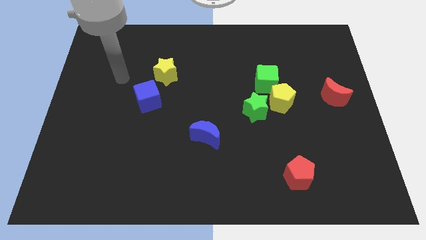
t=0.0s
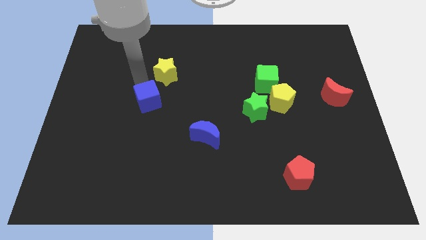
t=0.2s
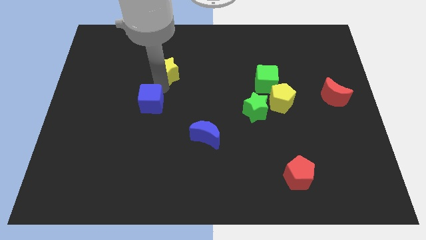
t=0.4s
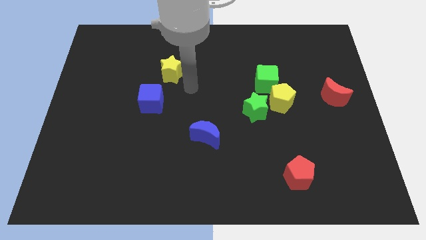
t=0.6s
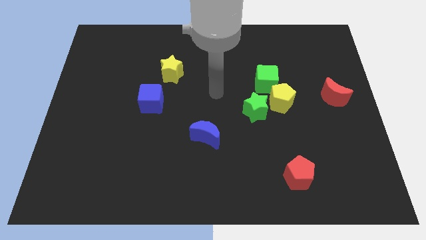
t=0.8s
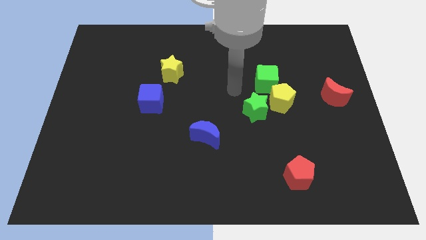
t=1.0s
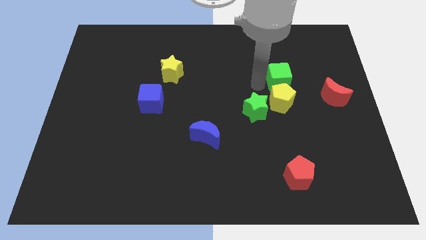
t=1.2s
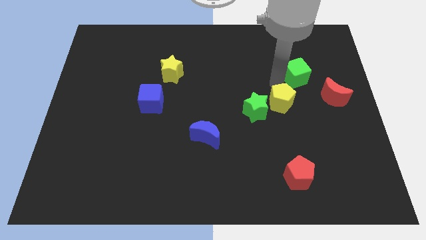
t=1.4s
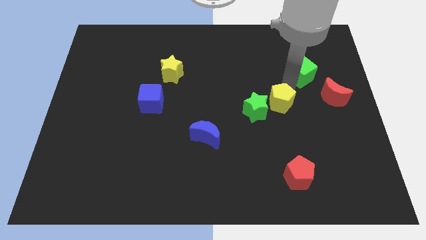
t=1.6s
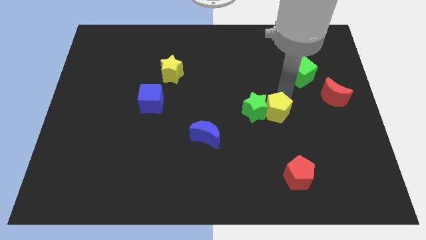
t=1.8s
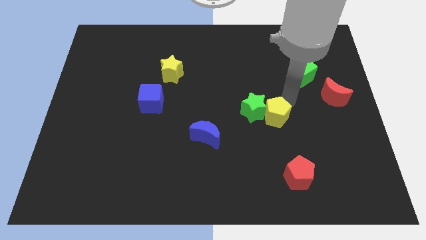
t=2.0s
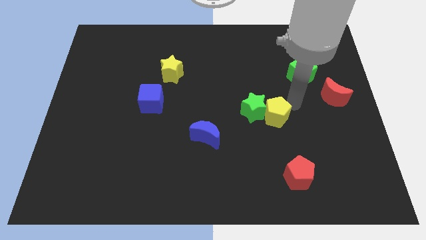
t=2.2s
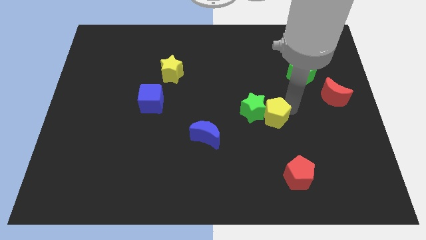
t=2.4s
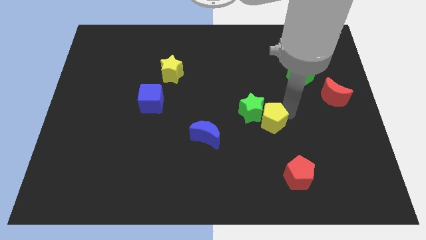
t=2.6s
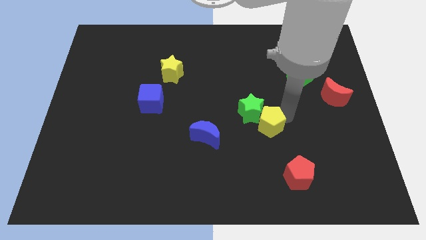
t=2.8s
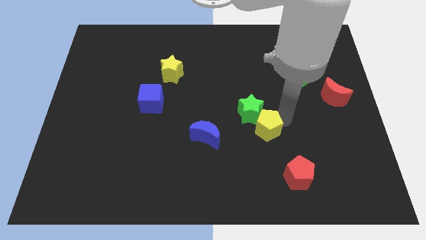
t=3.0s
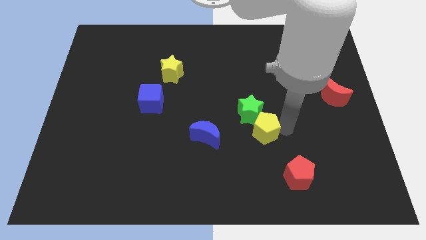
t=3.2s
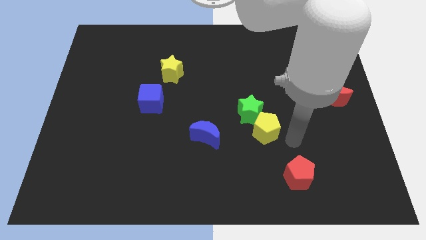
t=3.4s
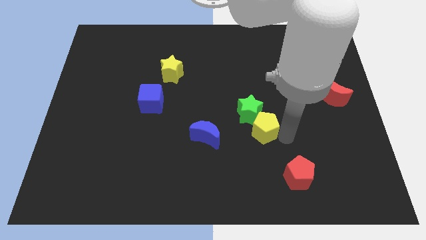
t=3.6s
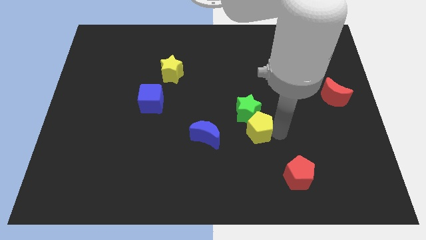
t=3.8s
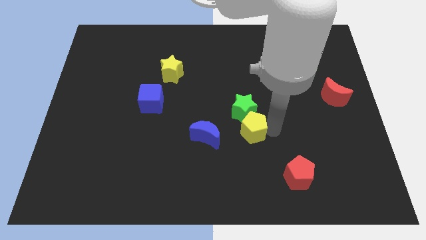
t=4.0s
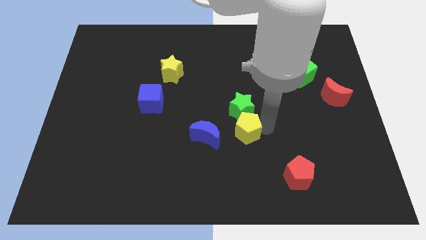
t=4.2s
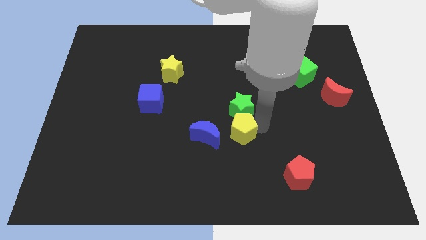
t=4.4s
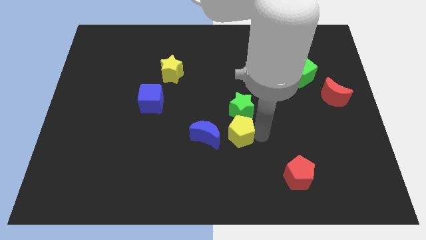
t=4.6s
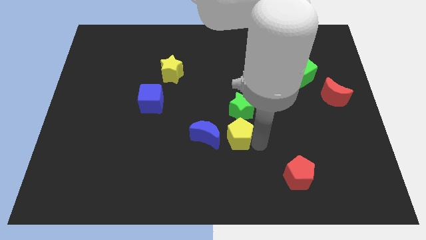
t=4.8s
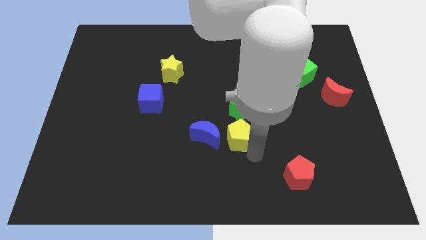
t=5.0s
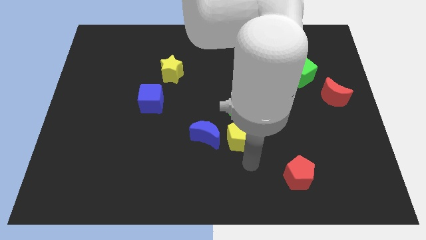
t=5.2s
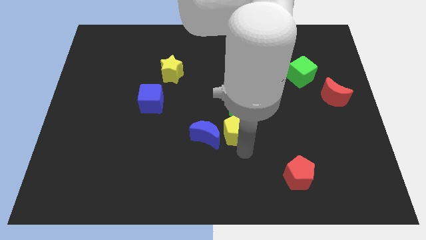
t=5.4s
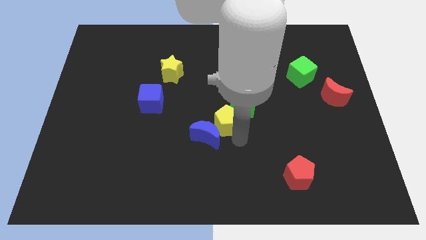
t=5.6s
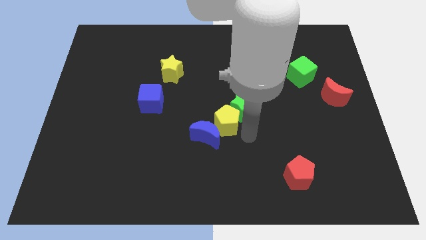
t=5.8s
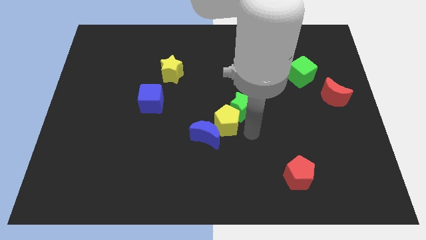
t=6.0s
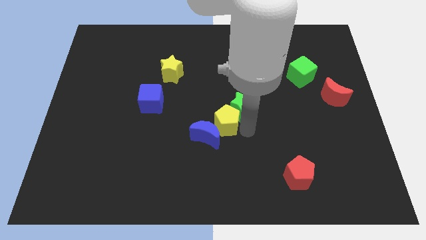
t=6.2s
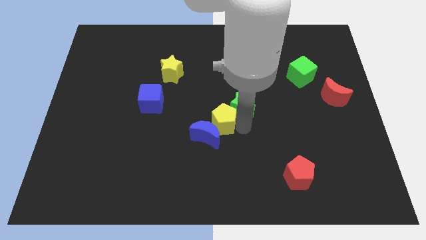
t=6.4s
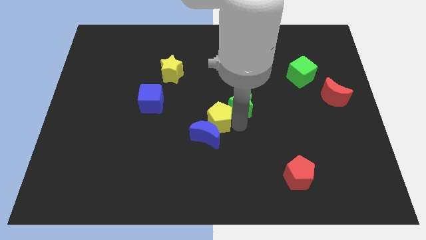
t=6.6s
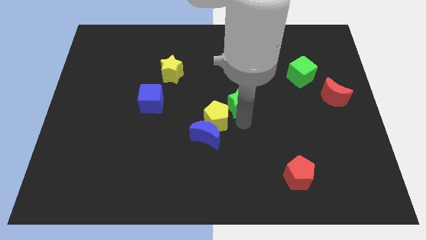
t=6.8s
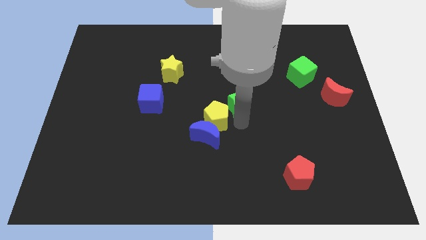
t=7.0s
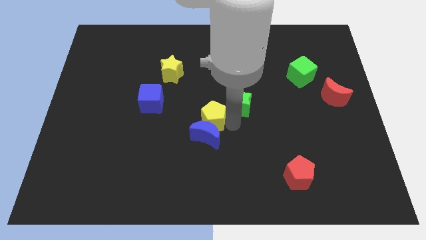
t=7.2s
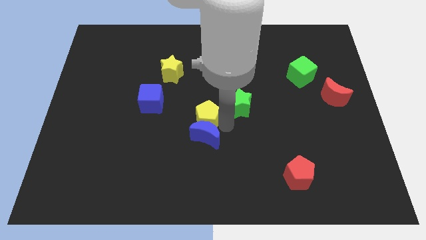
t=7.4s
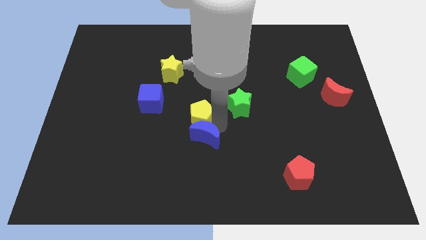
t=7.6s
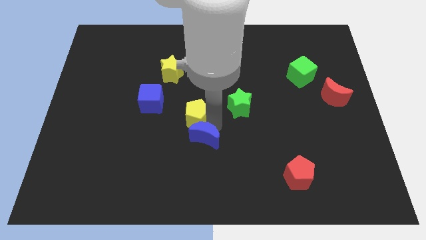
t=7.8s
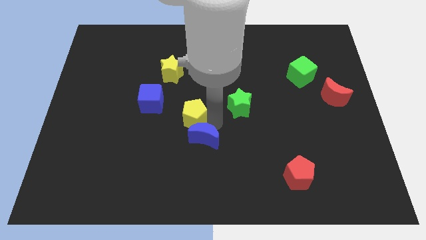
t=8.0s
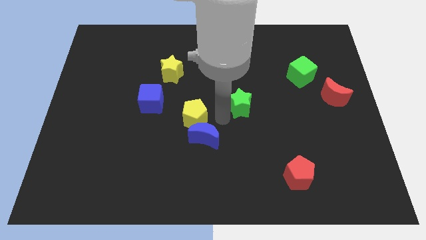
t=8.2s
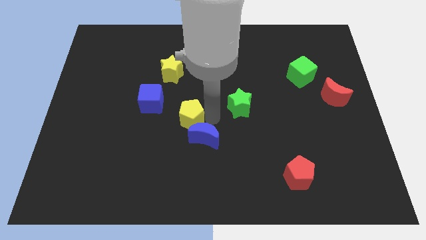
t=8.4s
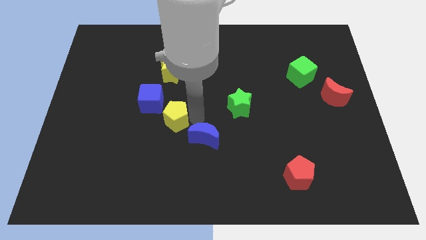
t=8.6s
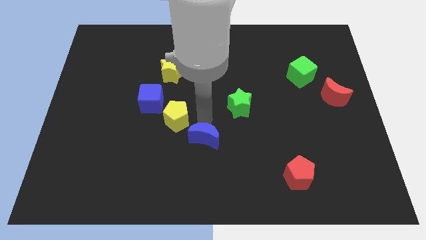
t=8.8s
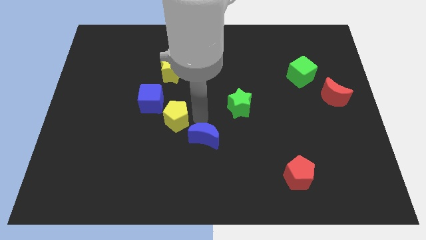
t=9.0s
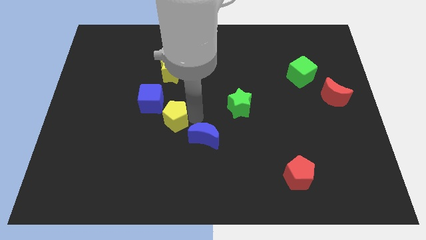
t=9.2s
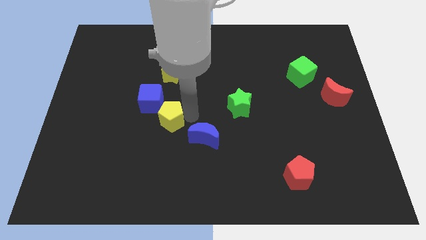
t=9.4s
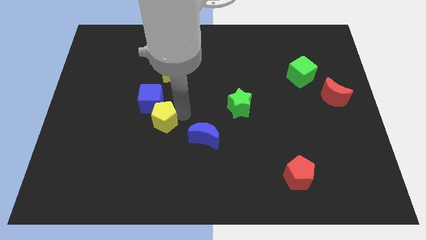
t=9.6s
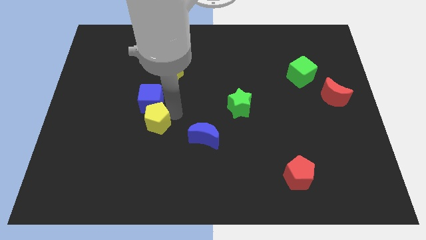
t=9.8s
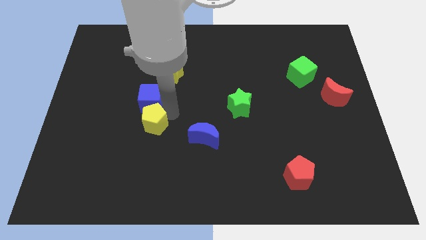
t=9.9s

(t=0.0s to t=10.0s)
slide the yellow pentagon to the bottom left of the blue cube

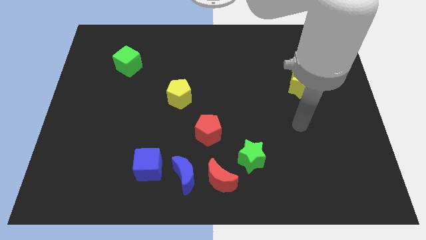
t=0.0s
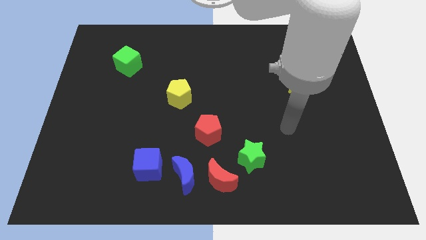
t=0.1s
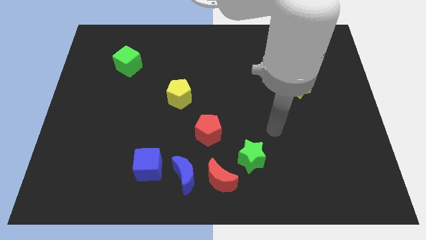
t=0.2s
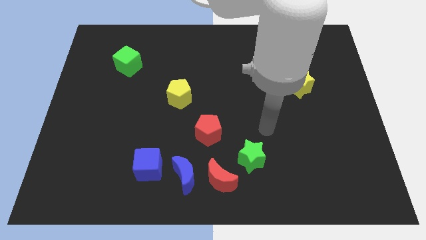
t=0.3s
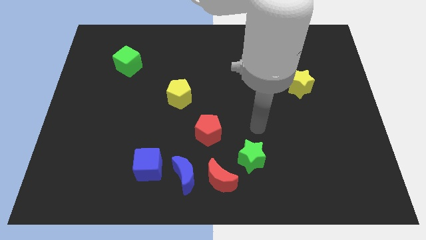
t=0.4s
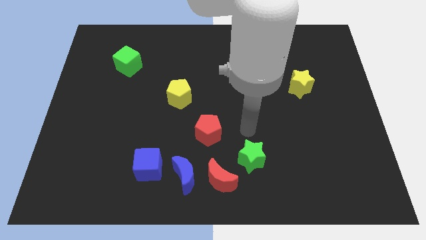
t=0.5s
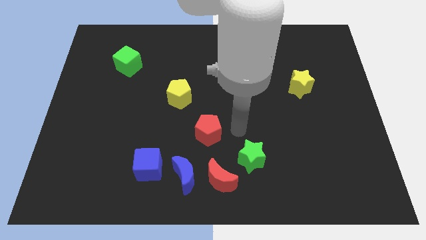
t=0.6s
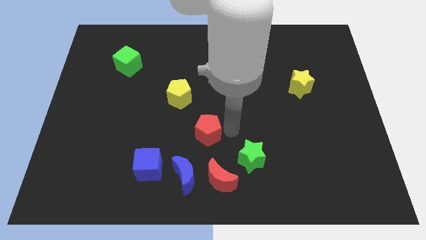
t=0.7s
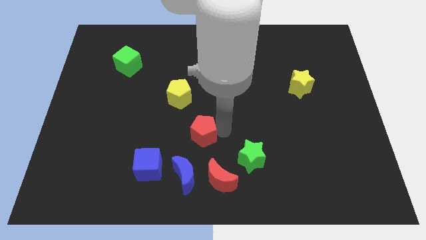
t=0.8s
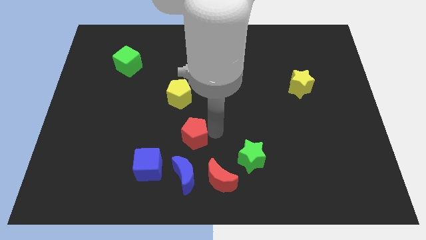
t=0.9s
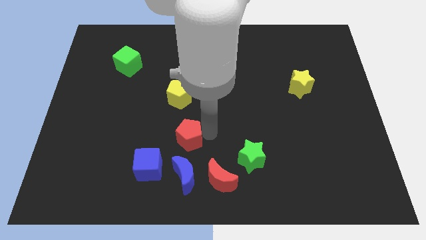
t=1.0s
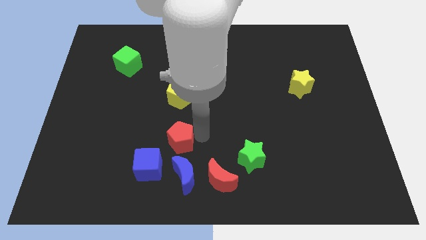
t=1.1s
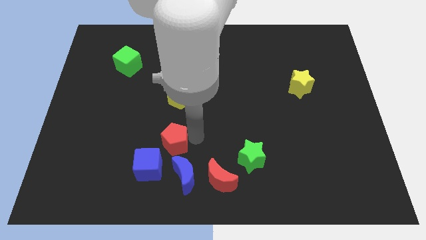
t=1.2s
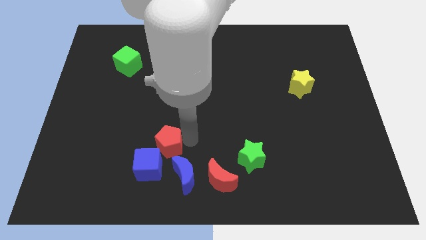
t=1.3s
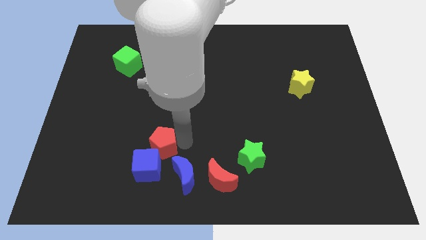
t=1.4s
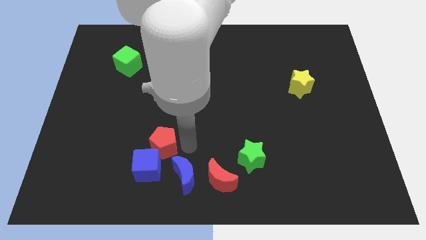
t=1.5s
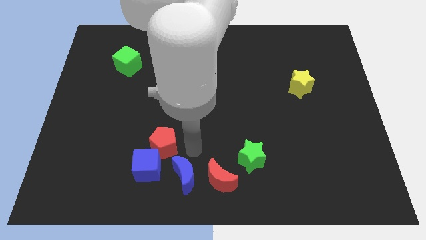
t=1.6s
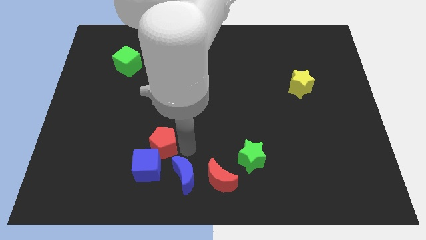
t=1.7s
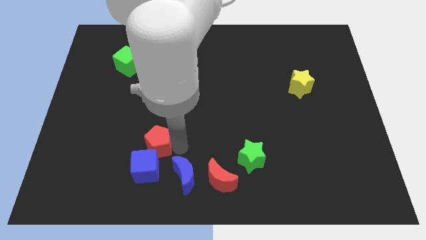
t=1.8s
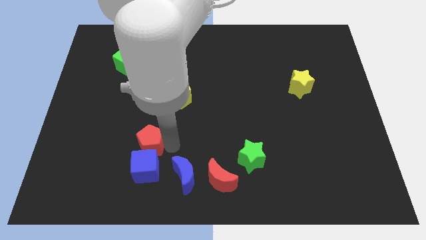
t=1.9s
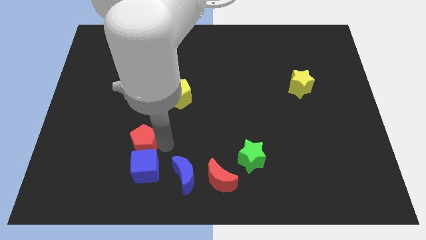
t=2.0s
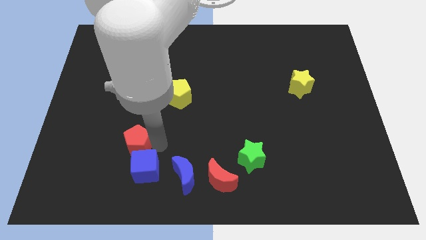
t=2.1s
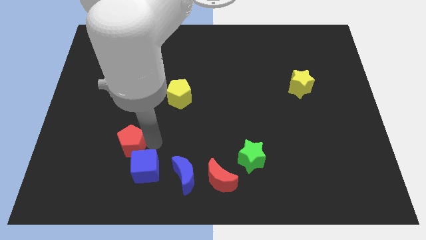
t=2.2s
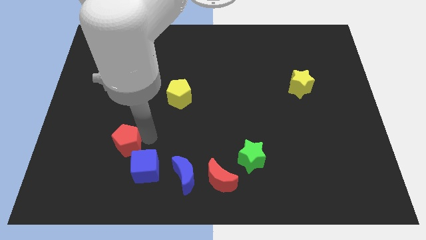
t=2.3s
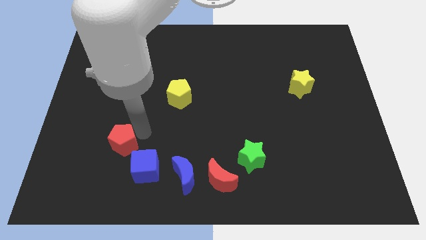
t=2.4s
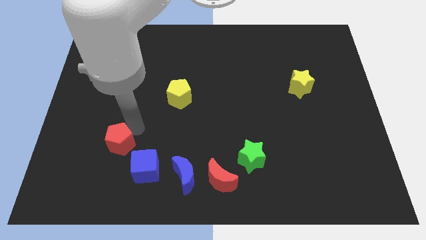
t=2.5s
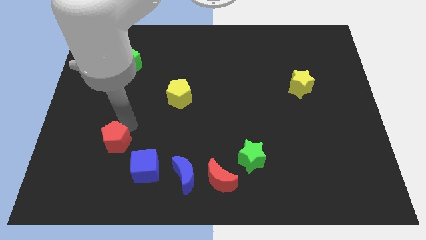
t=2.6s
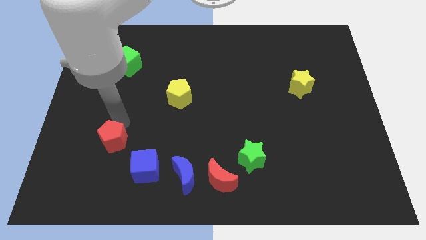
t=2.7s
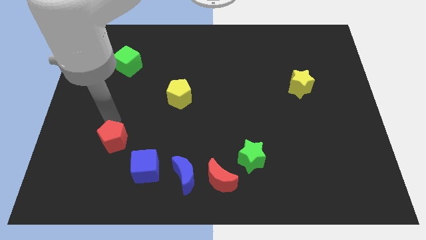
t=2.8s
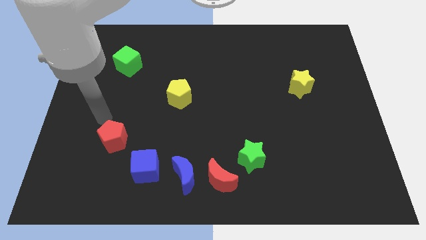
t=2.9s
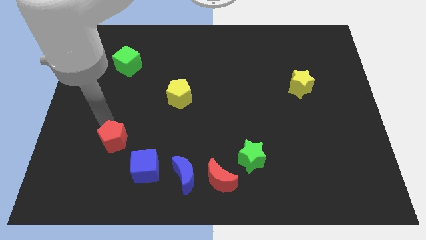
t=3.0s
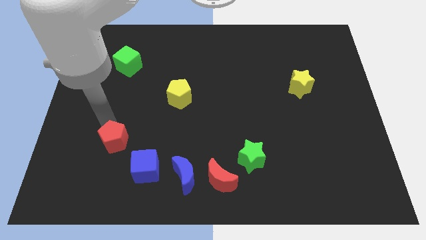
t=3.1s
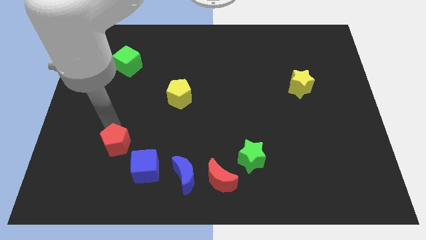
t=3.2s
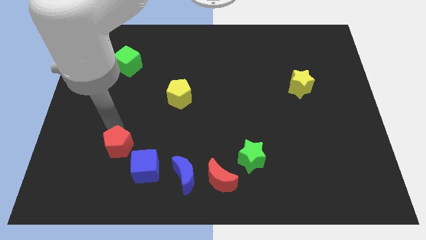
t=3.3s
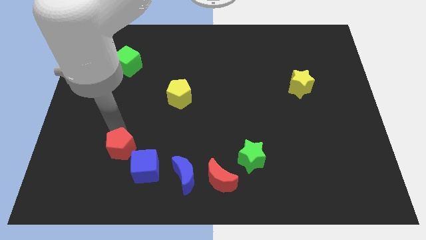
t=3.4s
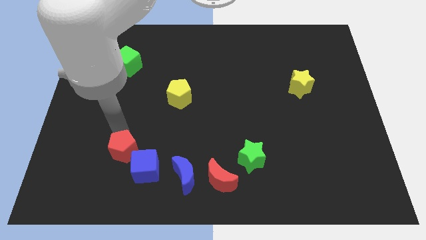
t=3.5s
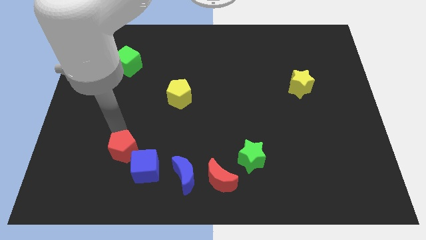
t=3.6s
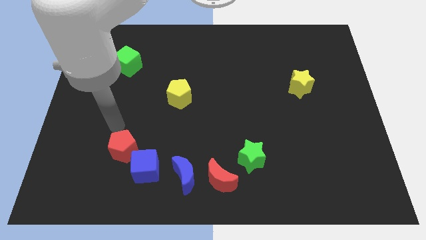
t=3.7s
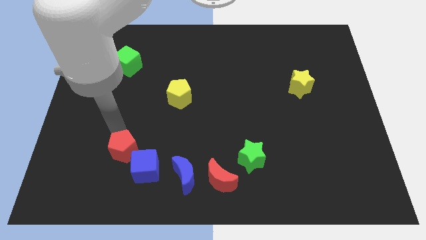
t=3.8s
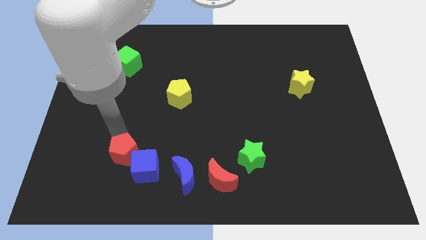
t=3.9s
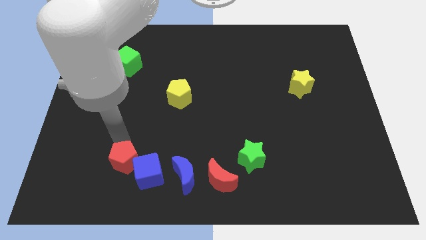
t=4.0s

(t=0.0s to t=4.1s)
put the red pentagon to the left of the blue moon
